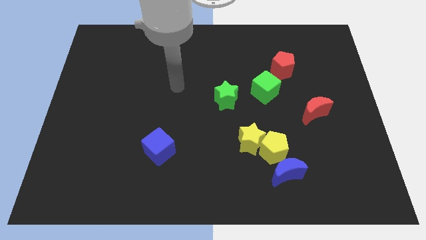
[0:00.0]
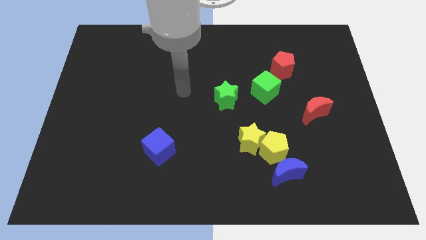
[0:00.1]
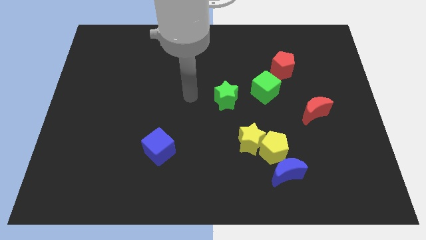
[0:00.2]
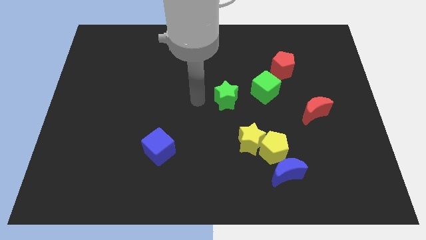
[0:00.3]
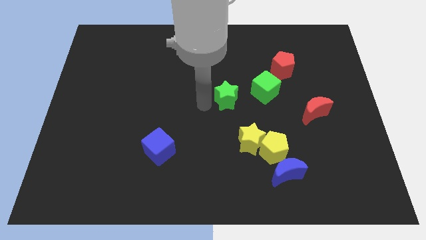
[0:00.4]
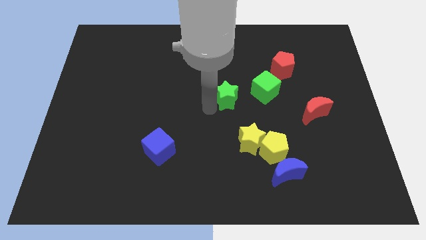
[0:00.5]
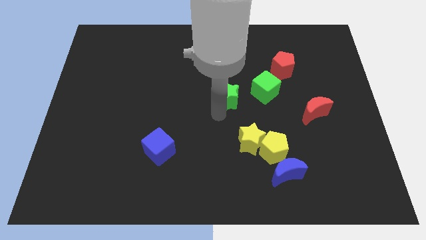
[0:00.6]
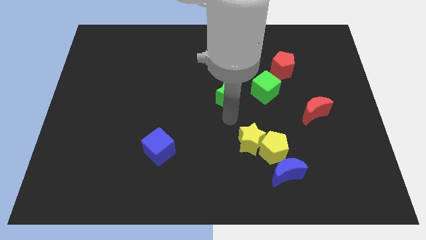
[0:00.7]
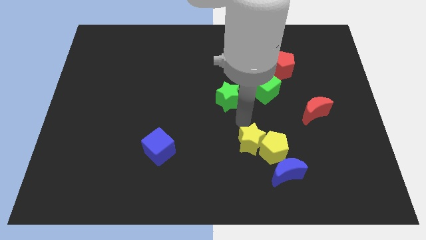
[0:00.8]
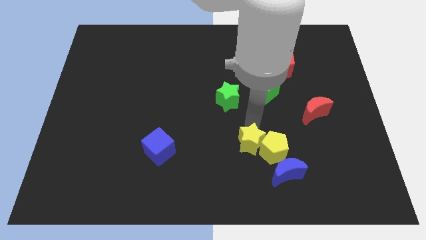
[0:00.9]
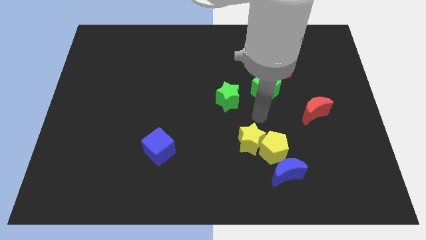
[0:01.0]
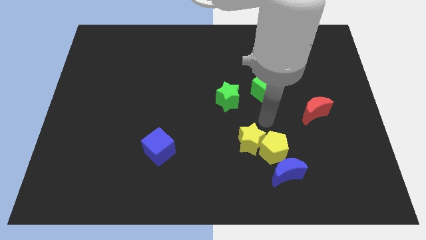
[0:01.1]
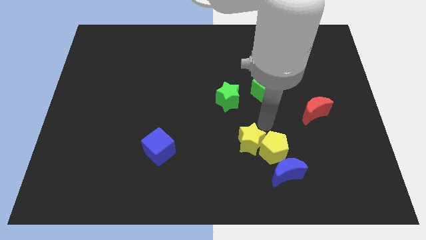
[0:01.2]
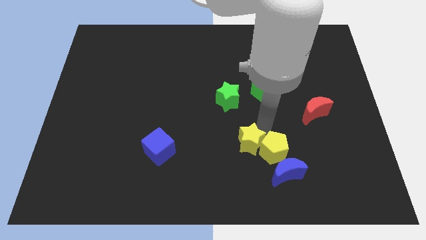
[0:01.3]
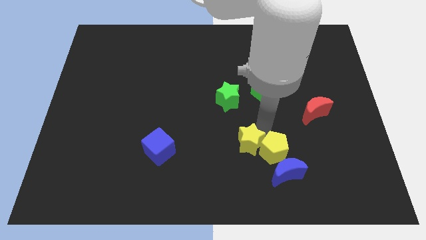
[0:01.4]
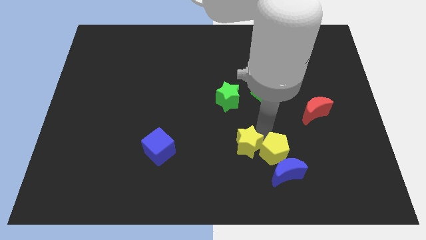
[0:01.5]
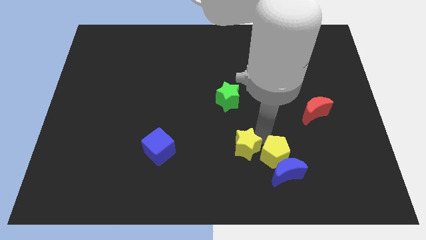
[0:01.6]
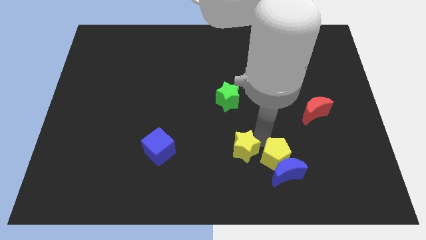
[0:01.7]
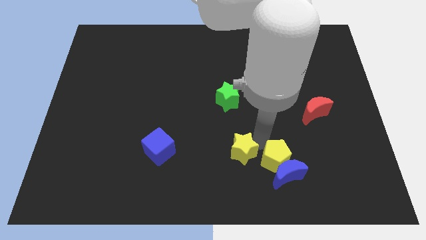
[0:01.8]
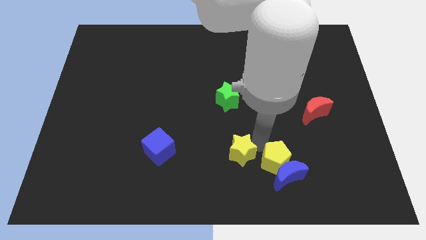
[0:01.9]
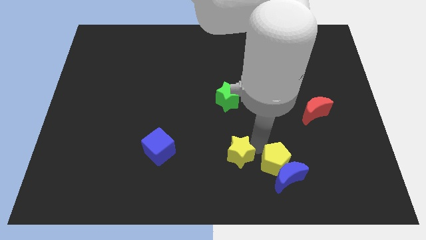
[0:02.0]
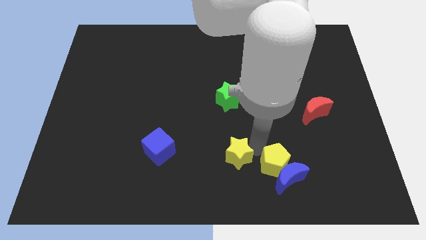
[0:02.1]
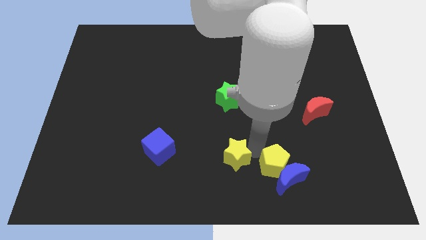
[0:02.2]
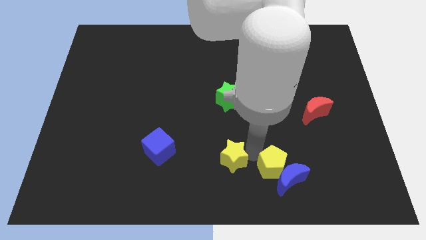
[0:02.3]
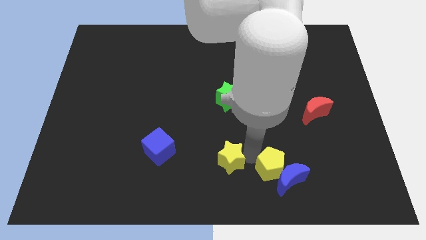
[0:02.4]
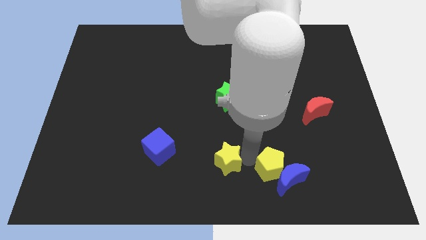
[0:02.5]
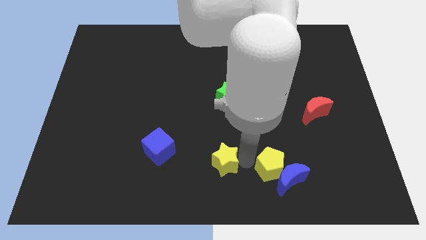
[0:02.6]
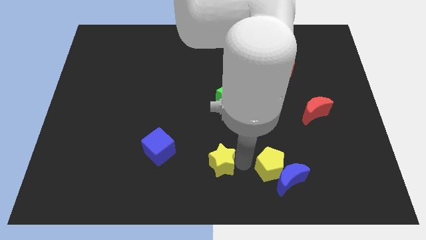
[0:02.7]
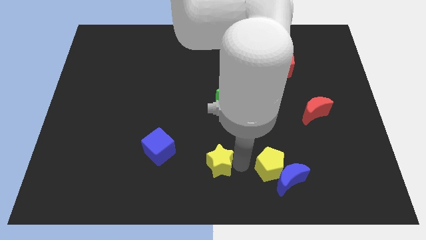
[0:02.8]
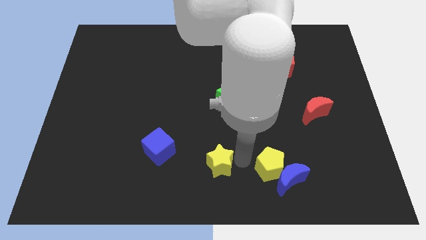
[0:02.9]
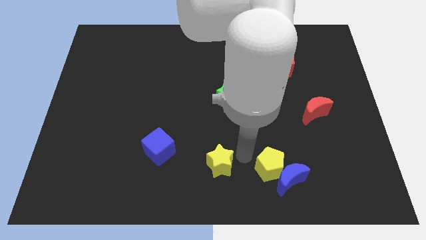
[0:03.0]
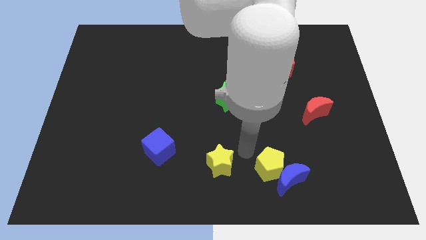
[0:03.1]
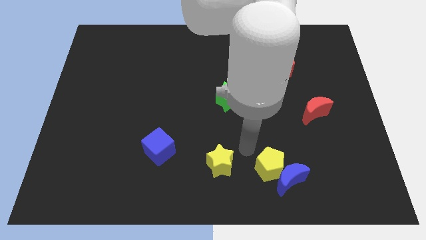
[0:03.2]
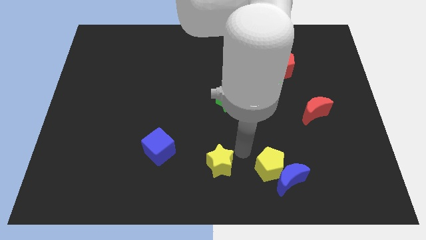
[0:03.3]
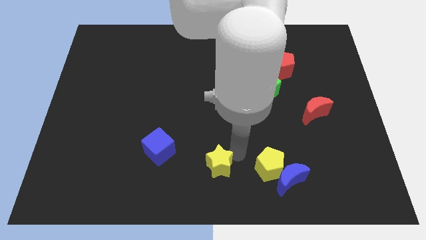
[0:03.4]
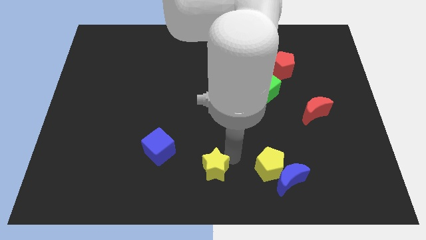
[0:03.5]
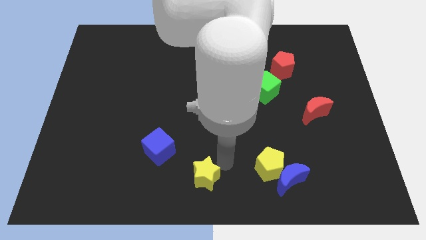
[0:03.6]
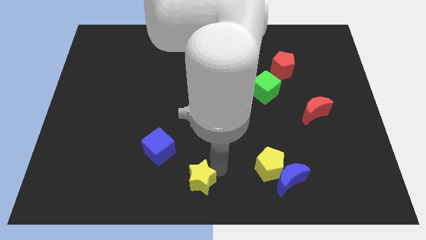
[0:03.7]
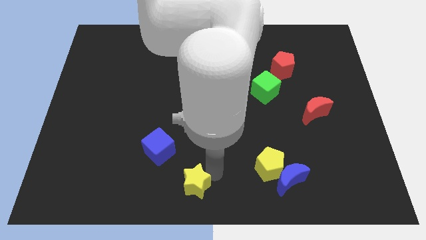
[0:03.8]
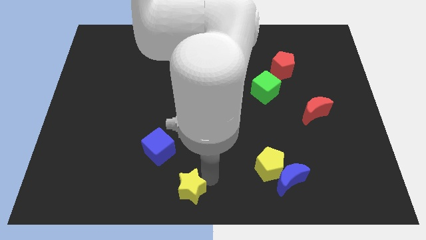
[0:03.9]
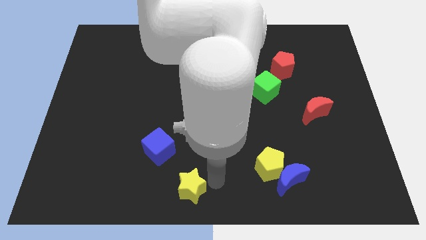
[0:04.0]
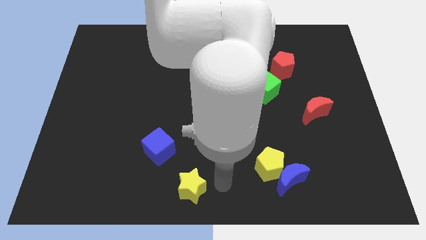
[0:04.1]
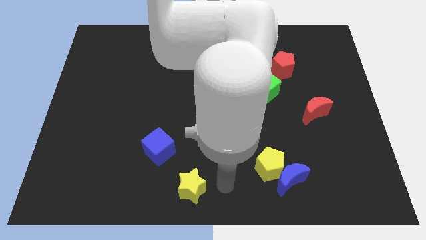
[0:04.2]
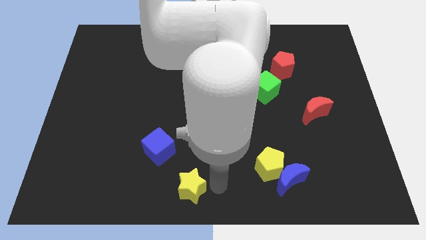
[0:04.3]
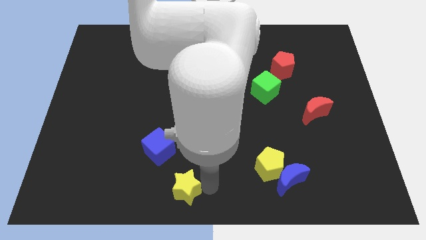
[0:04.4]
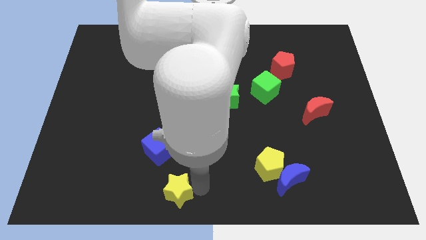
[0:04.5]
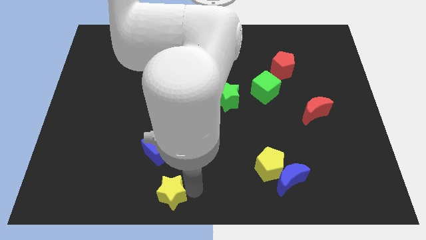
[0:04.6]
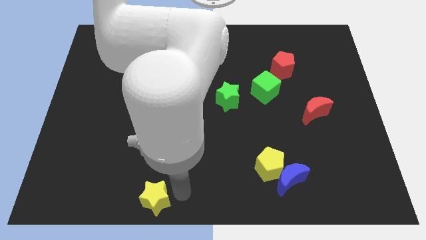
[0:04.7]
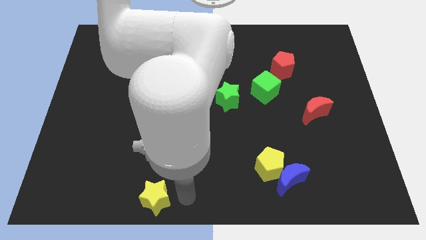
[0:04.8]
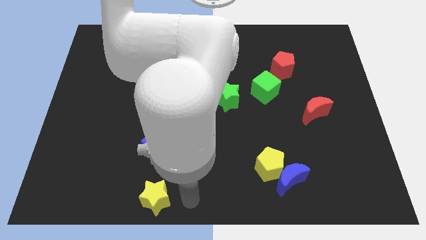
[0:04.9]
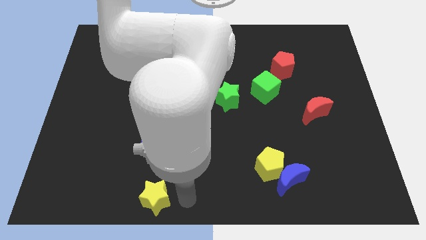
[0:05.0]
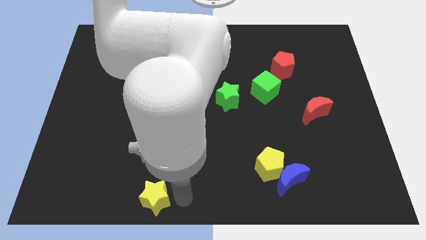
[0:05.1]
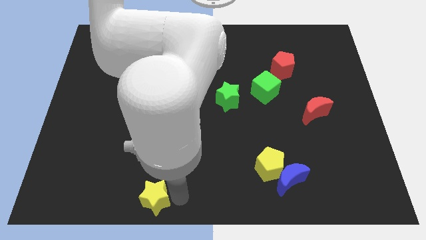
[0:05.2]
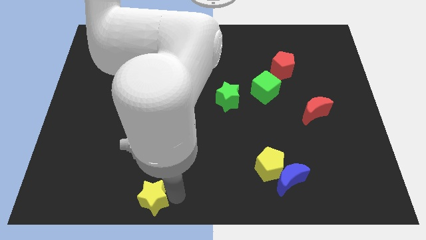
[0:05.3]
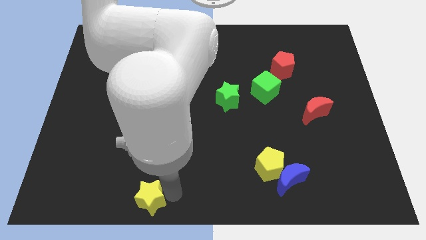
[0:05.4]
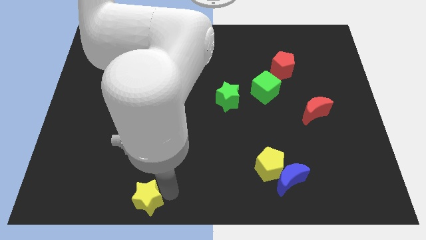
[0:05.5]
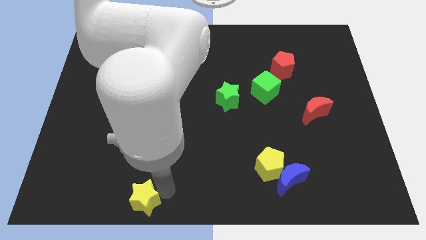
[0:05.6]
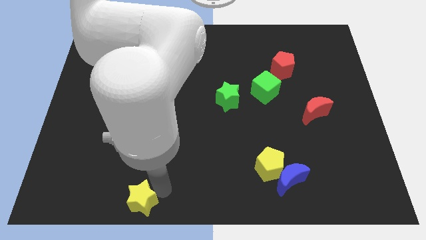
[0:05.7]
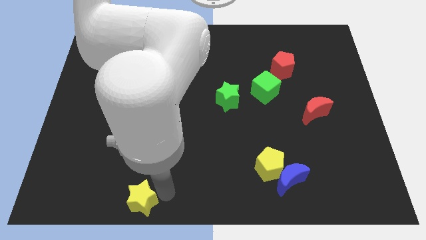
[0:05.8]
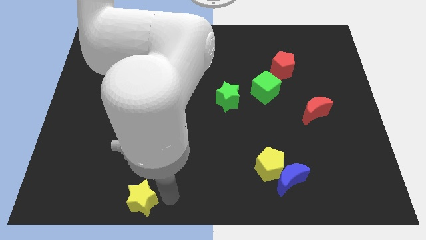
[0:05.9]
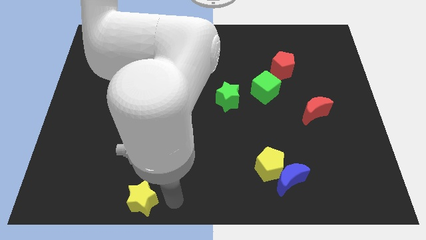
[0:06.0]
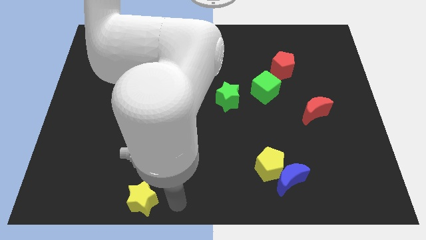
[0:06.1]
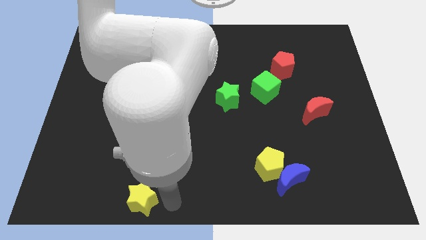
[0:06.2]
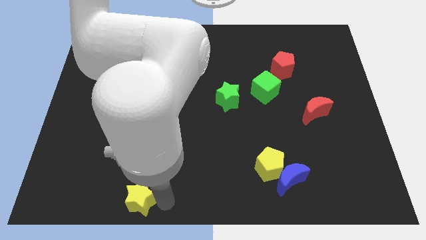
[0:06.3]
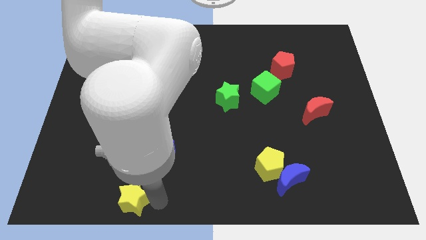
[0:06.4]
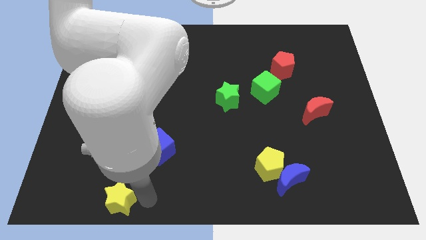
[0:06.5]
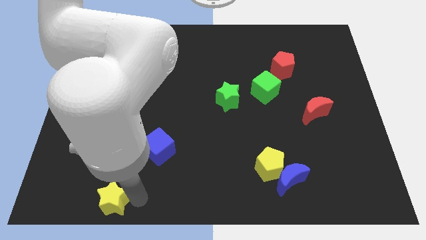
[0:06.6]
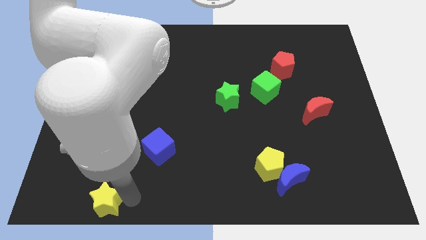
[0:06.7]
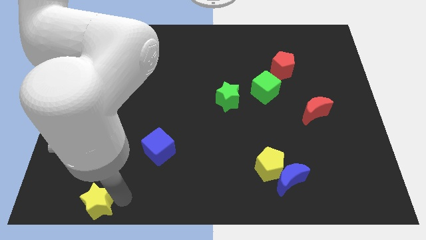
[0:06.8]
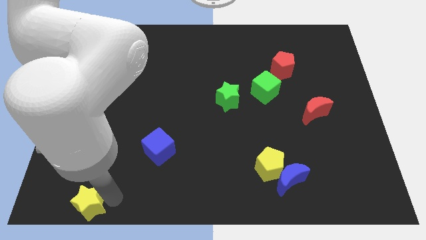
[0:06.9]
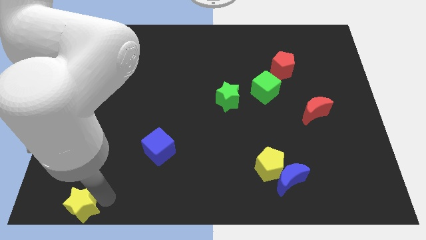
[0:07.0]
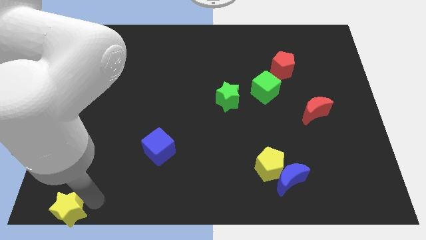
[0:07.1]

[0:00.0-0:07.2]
push the yellow star to the bottom left of the board
